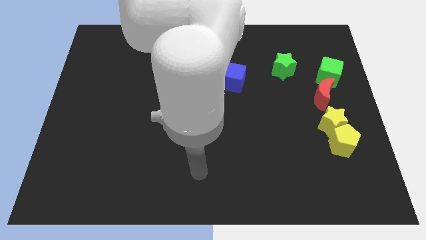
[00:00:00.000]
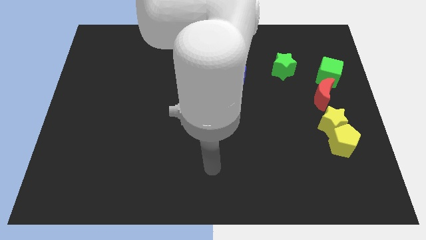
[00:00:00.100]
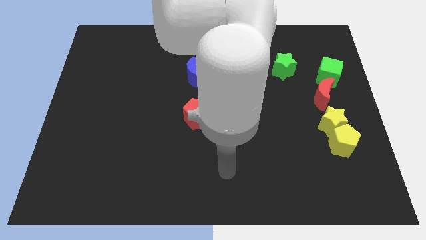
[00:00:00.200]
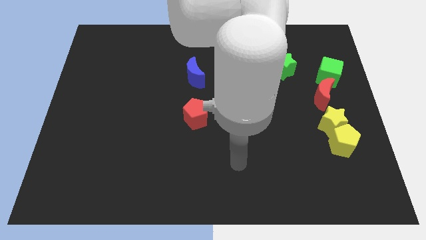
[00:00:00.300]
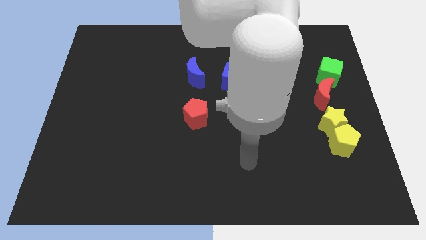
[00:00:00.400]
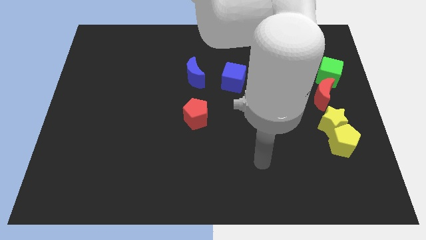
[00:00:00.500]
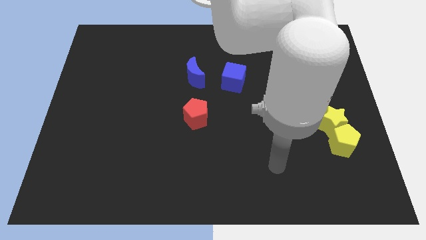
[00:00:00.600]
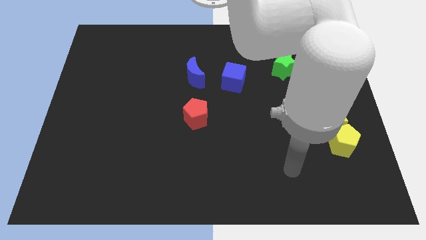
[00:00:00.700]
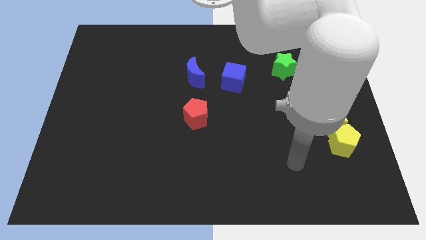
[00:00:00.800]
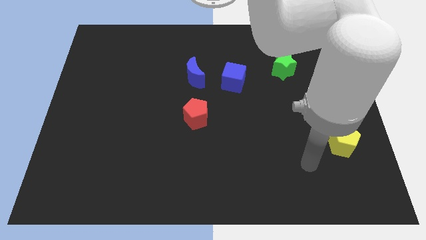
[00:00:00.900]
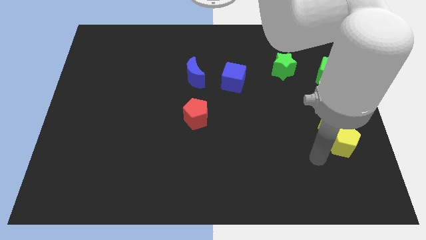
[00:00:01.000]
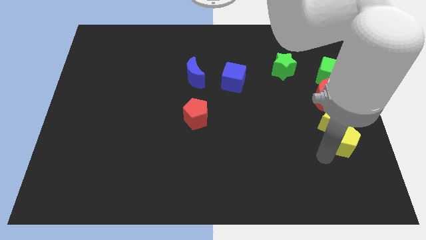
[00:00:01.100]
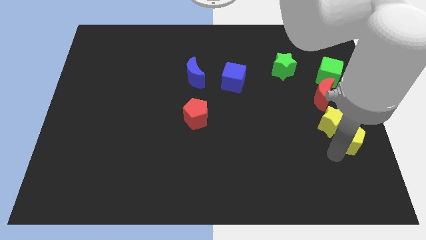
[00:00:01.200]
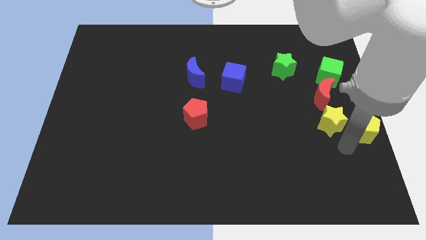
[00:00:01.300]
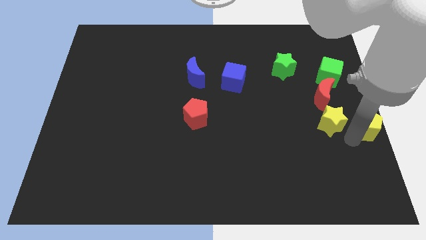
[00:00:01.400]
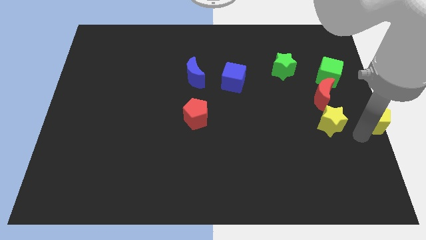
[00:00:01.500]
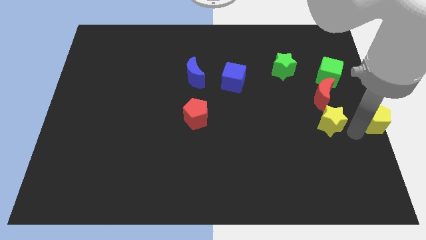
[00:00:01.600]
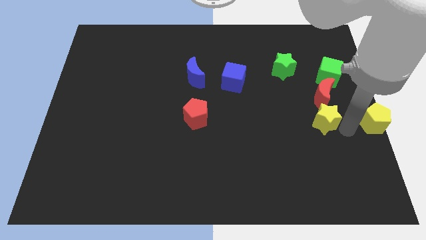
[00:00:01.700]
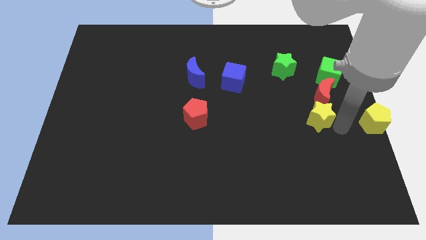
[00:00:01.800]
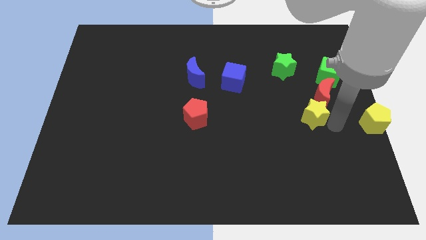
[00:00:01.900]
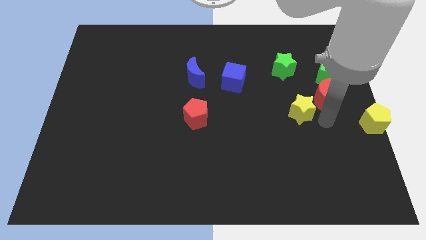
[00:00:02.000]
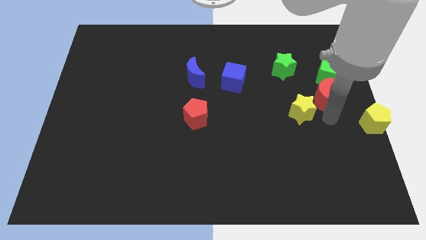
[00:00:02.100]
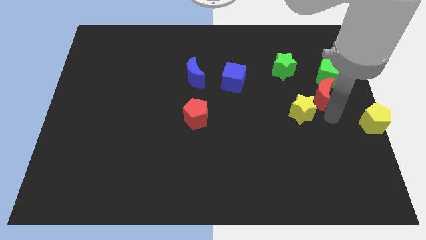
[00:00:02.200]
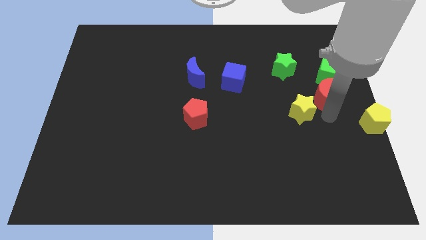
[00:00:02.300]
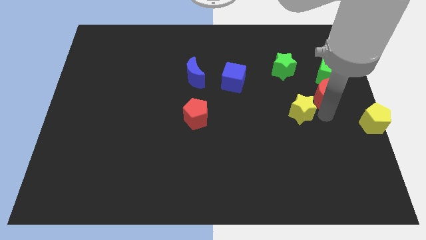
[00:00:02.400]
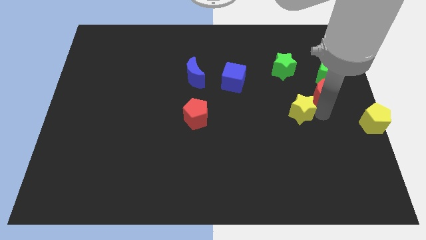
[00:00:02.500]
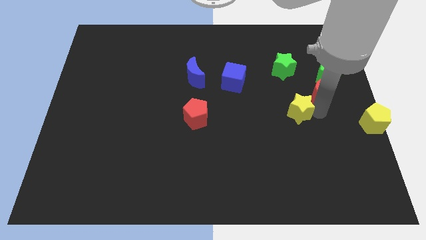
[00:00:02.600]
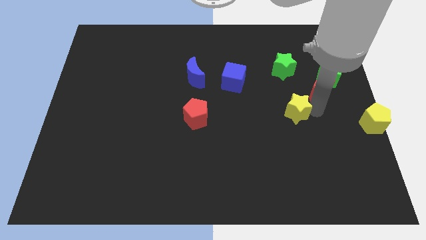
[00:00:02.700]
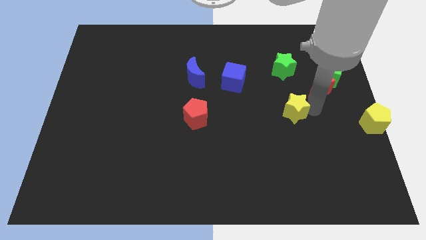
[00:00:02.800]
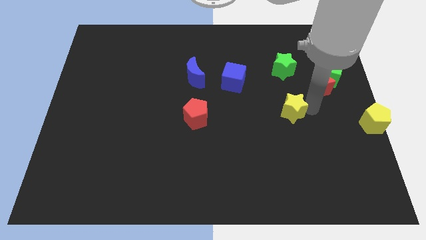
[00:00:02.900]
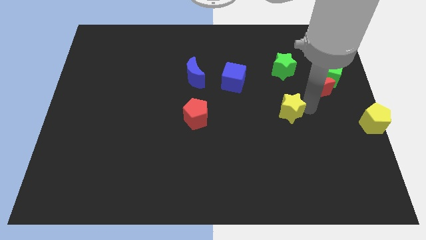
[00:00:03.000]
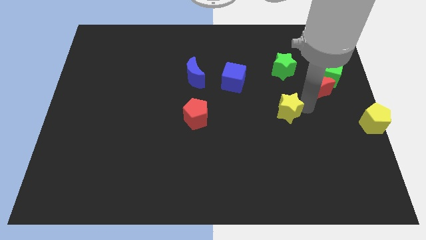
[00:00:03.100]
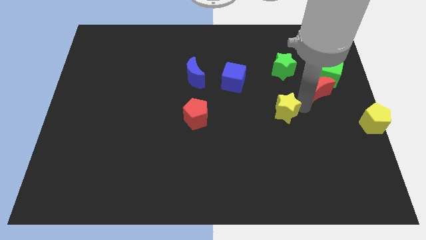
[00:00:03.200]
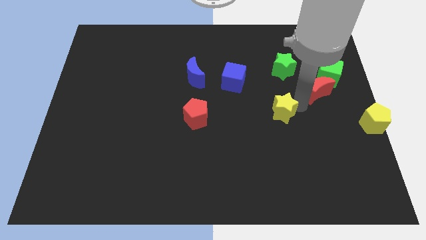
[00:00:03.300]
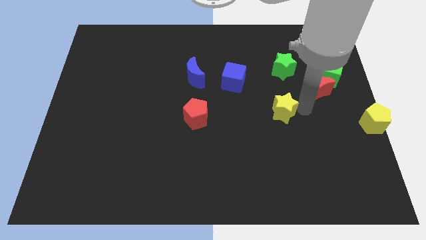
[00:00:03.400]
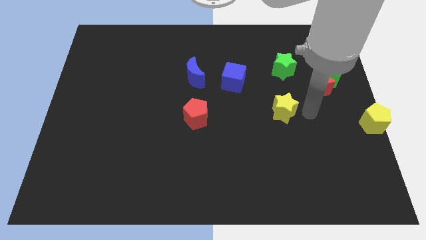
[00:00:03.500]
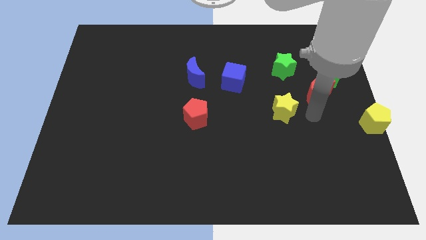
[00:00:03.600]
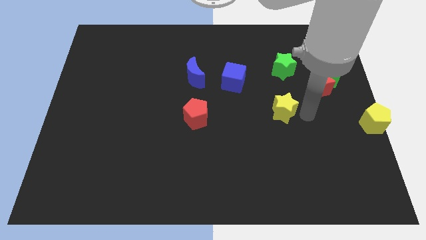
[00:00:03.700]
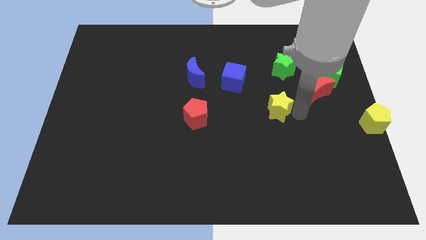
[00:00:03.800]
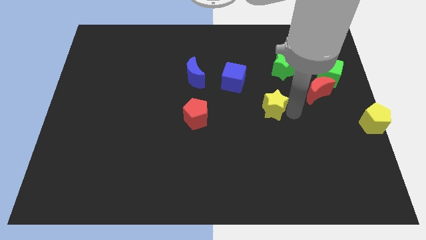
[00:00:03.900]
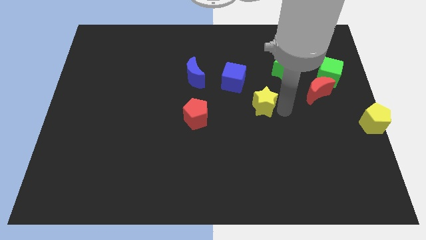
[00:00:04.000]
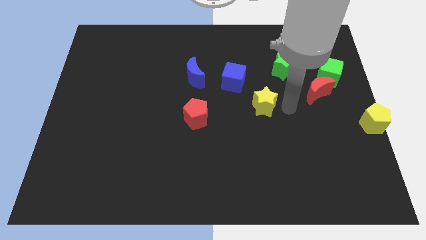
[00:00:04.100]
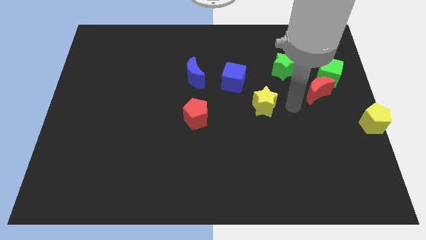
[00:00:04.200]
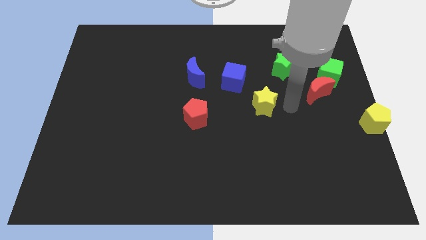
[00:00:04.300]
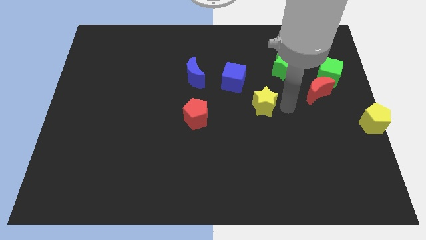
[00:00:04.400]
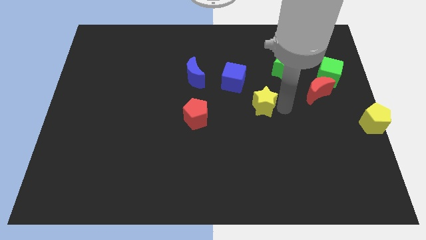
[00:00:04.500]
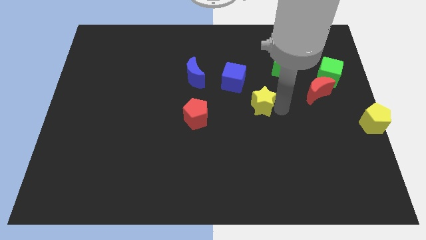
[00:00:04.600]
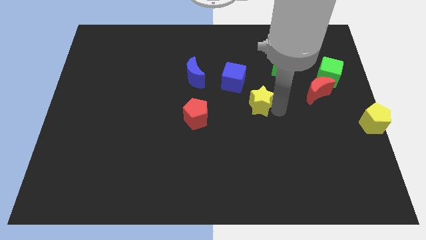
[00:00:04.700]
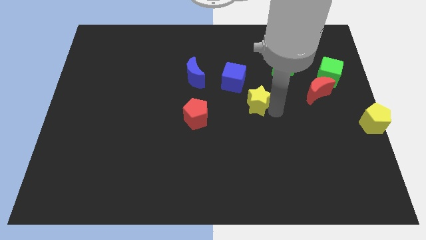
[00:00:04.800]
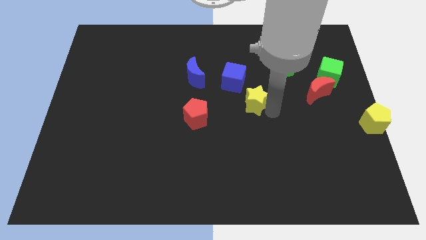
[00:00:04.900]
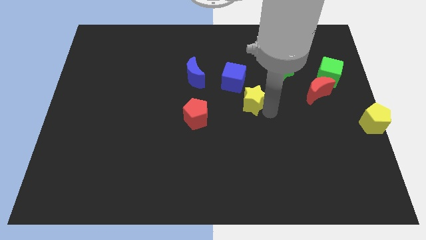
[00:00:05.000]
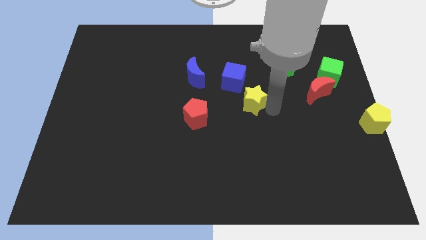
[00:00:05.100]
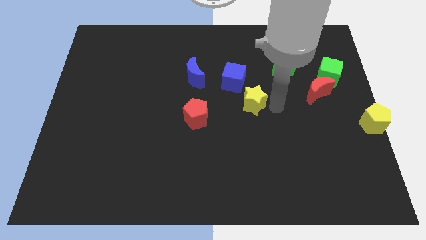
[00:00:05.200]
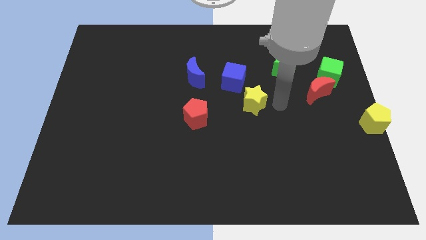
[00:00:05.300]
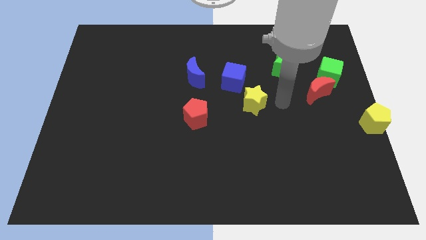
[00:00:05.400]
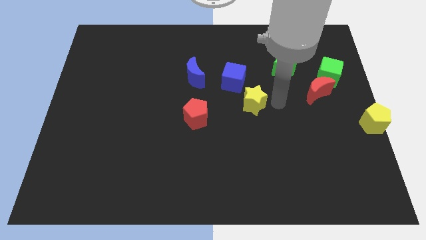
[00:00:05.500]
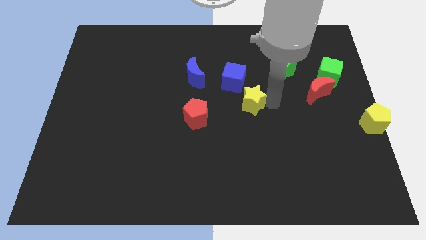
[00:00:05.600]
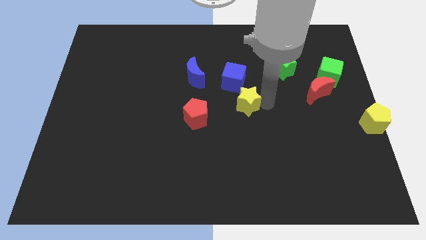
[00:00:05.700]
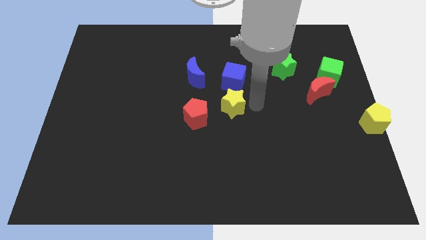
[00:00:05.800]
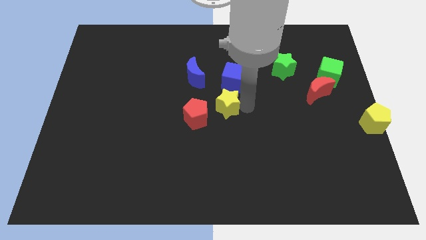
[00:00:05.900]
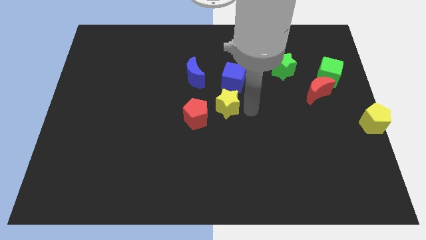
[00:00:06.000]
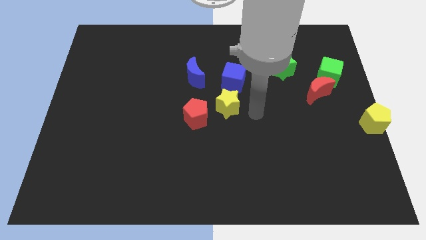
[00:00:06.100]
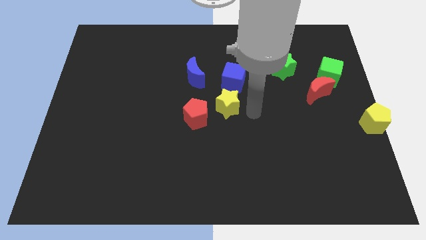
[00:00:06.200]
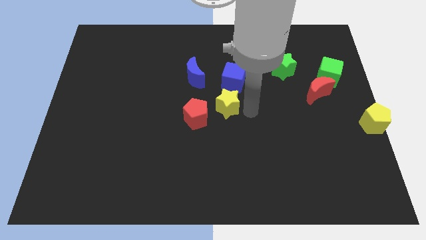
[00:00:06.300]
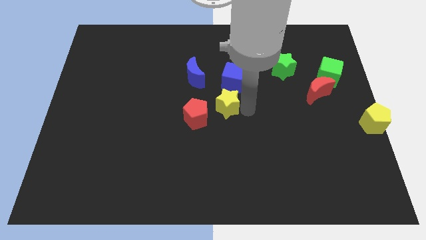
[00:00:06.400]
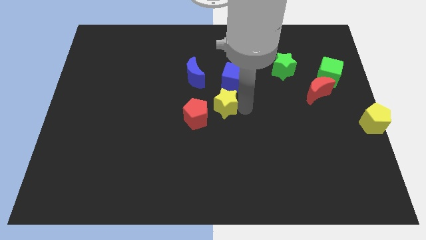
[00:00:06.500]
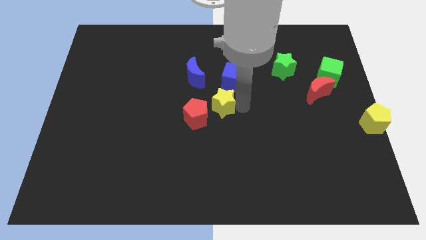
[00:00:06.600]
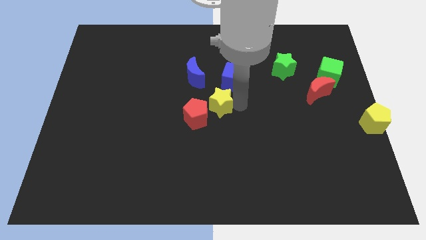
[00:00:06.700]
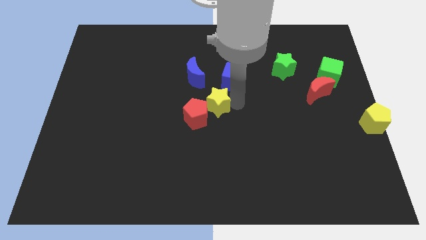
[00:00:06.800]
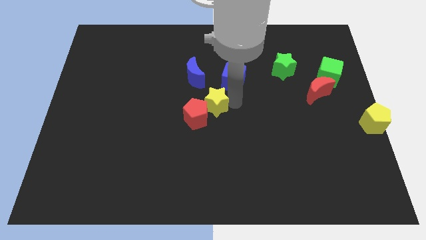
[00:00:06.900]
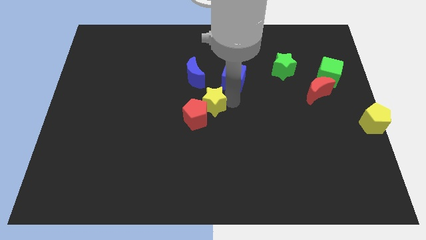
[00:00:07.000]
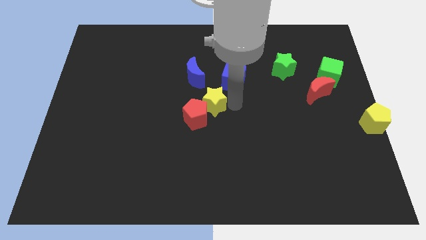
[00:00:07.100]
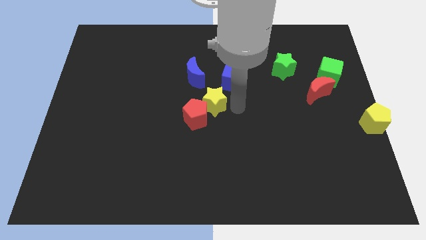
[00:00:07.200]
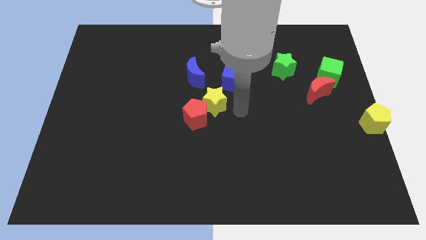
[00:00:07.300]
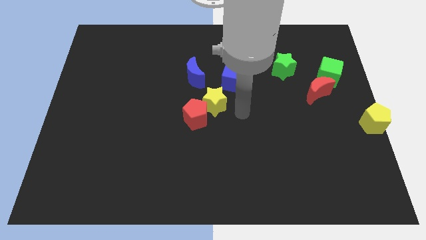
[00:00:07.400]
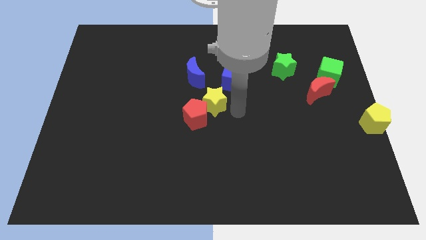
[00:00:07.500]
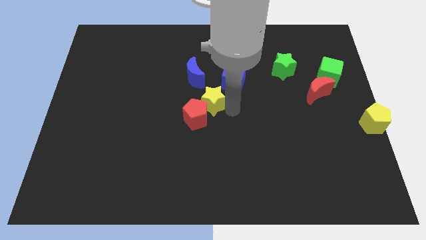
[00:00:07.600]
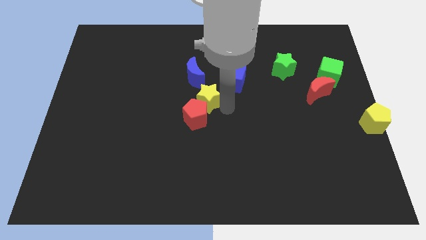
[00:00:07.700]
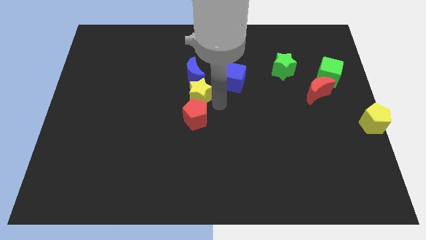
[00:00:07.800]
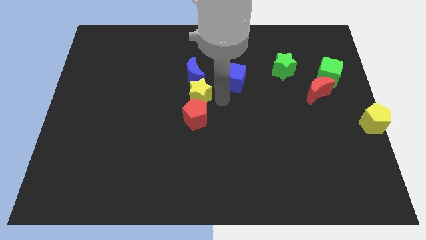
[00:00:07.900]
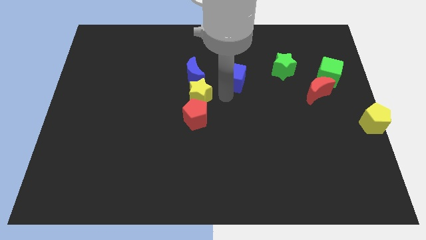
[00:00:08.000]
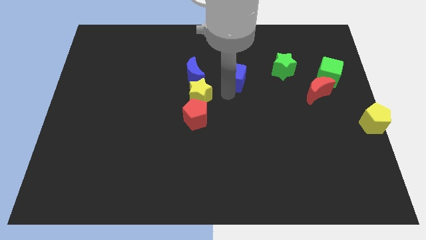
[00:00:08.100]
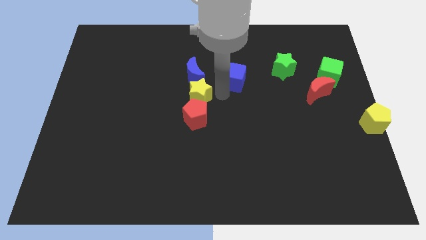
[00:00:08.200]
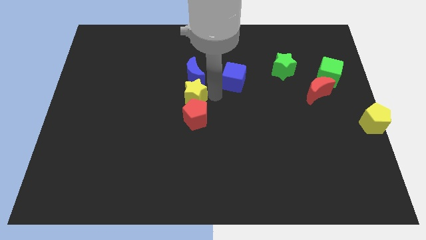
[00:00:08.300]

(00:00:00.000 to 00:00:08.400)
put the yellow star to the top left of the red pentagon

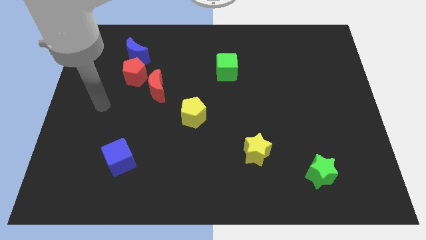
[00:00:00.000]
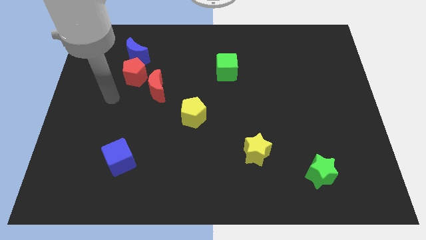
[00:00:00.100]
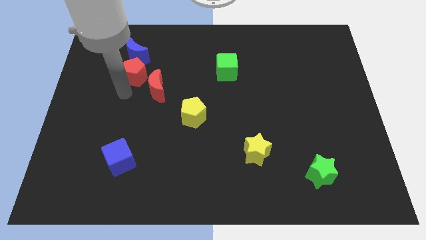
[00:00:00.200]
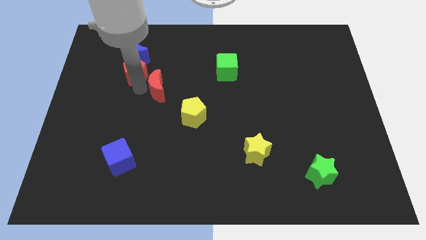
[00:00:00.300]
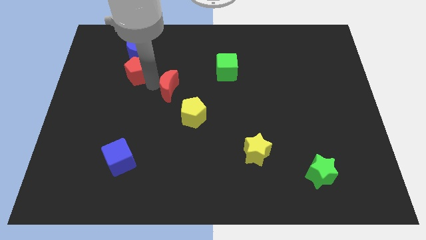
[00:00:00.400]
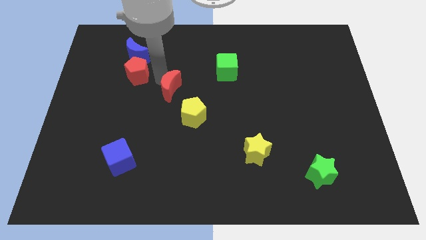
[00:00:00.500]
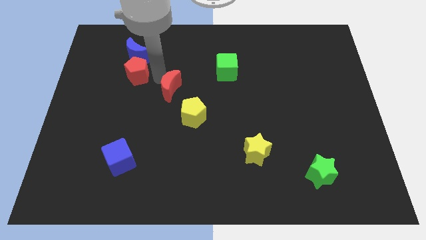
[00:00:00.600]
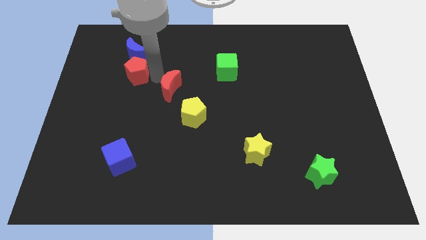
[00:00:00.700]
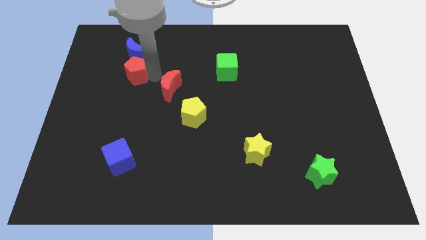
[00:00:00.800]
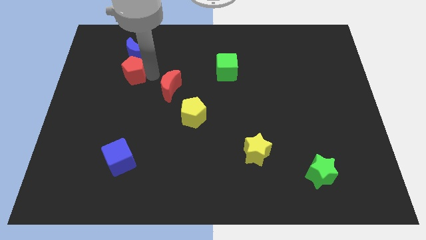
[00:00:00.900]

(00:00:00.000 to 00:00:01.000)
put the red pentagon diagonally down and to the left of the blue moon
